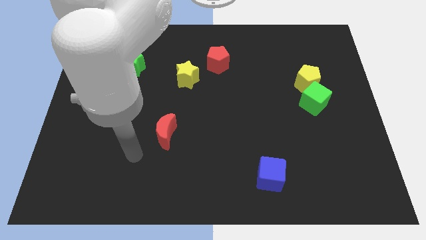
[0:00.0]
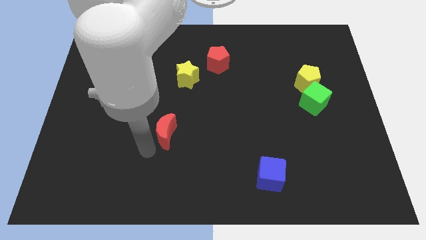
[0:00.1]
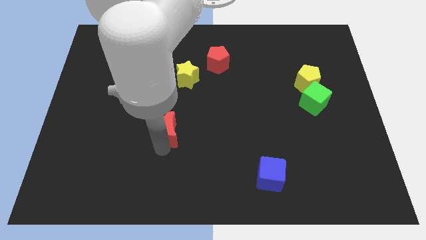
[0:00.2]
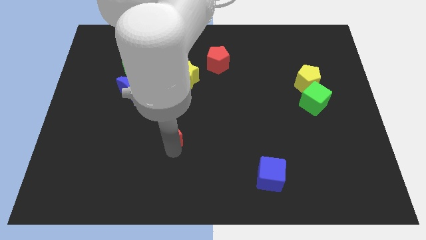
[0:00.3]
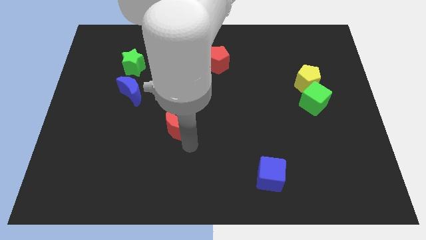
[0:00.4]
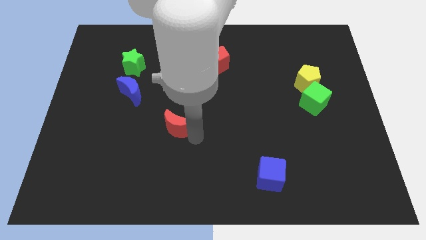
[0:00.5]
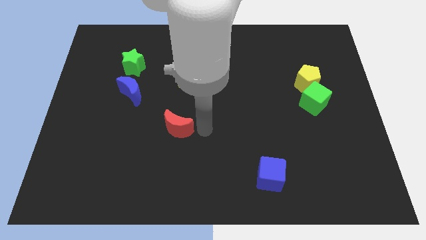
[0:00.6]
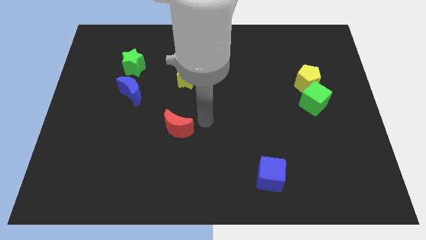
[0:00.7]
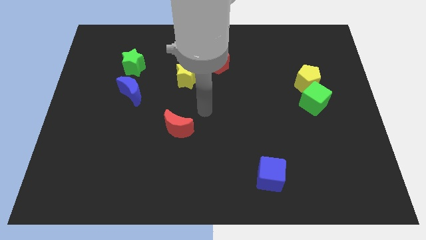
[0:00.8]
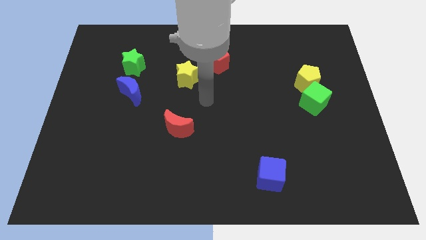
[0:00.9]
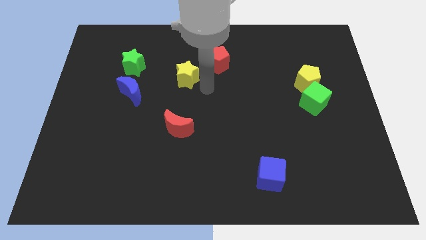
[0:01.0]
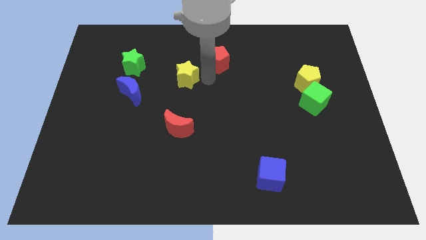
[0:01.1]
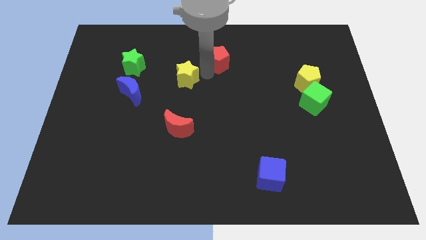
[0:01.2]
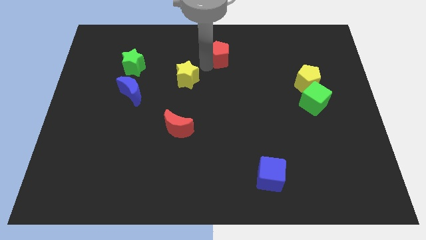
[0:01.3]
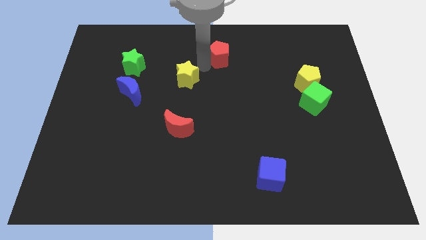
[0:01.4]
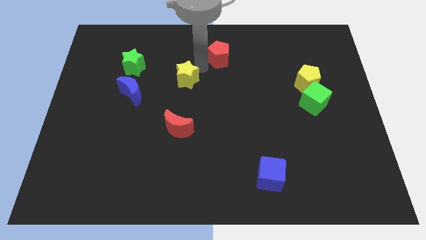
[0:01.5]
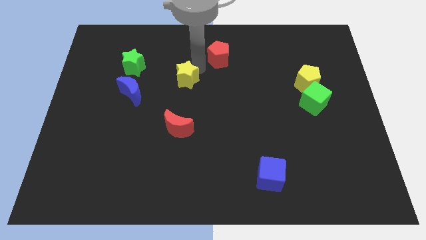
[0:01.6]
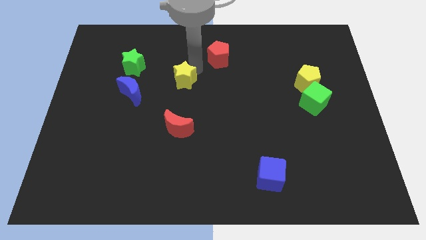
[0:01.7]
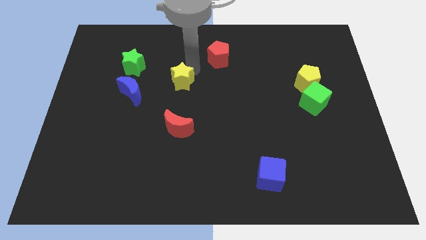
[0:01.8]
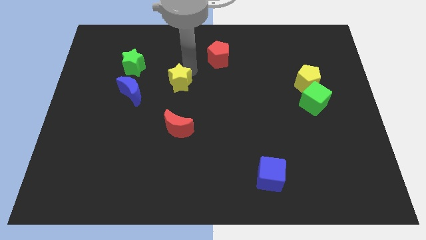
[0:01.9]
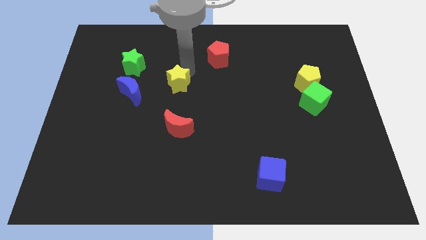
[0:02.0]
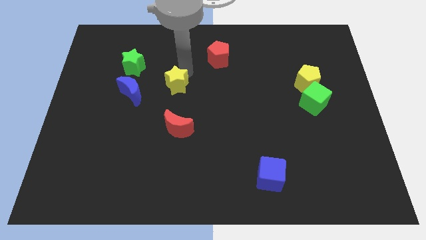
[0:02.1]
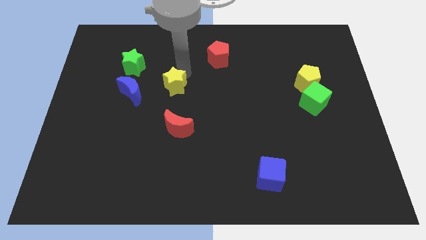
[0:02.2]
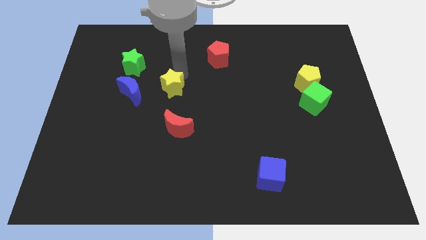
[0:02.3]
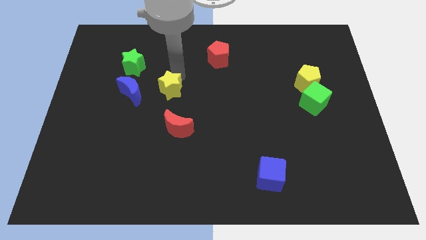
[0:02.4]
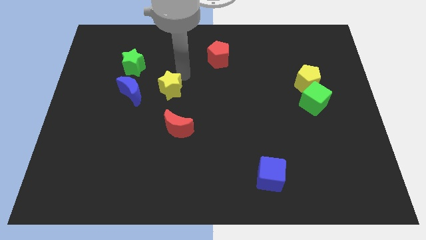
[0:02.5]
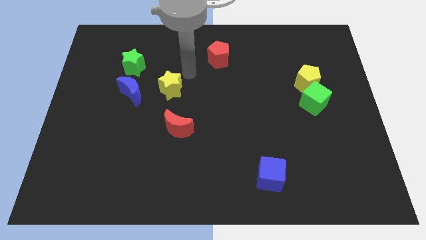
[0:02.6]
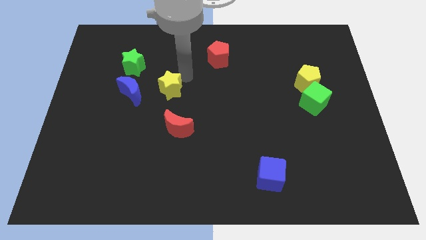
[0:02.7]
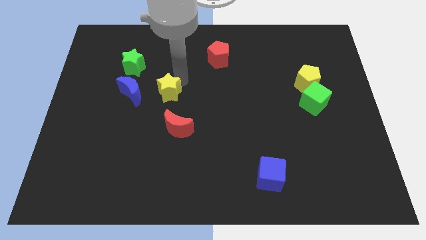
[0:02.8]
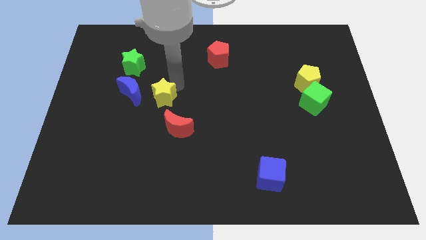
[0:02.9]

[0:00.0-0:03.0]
slightly move the yellow star down and left diagonally

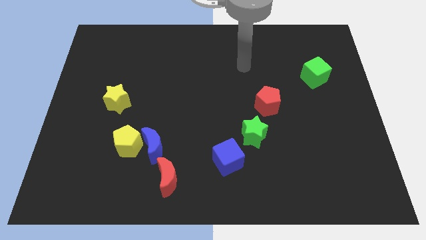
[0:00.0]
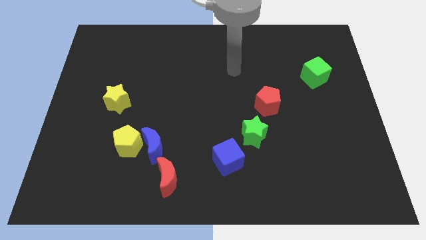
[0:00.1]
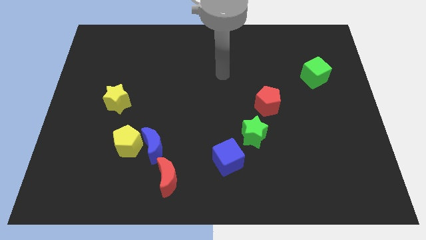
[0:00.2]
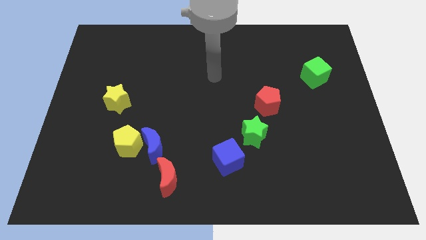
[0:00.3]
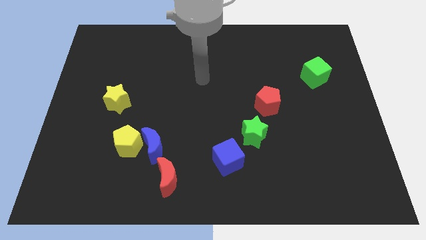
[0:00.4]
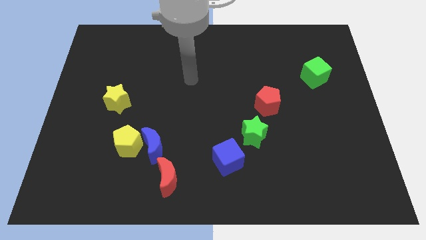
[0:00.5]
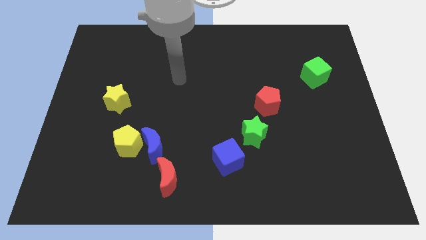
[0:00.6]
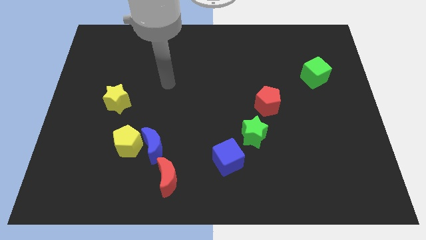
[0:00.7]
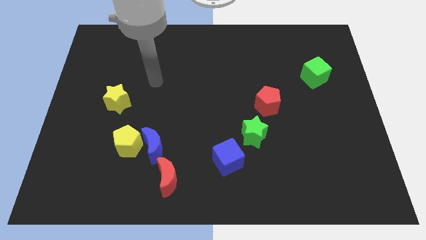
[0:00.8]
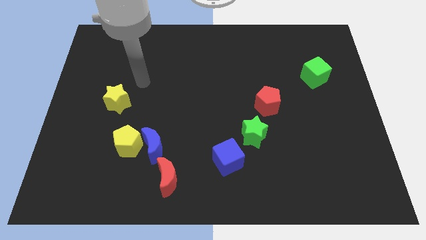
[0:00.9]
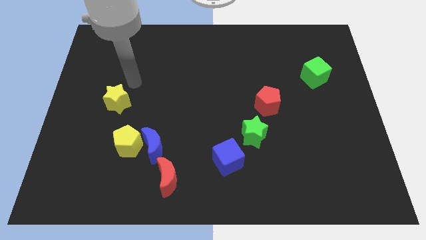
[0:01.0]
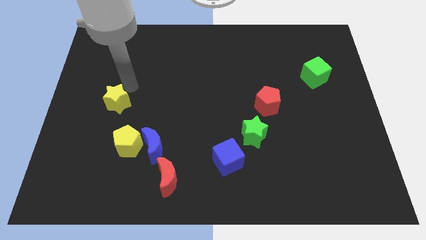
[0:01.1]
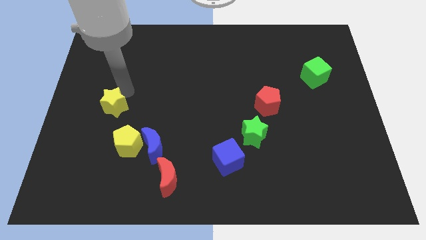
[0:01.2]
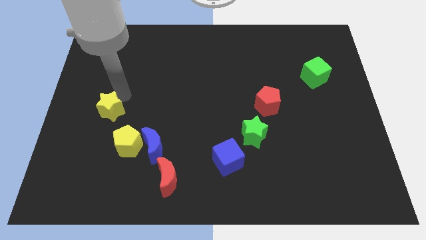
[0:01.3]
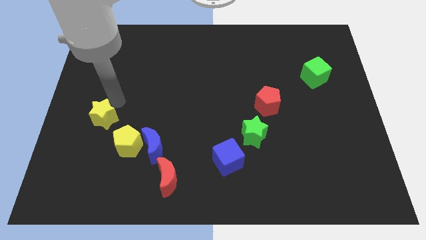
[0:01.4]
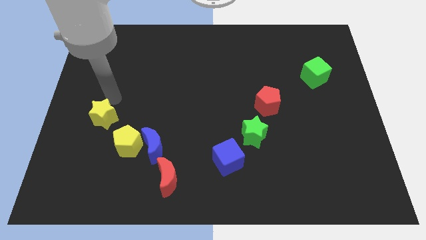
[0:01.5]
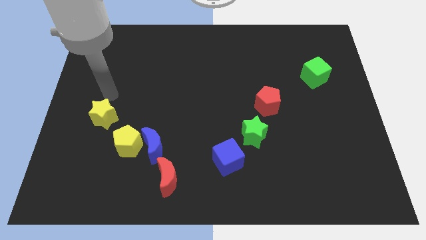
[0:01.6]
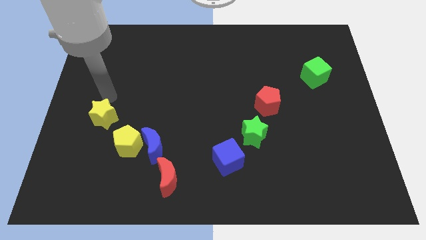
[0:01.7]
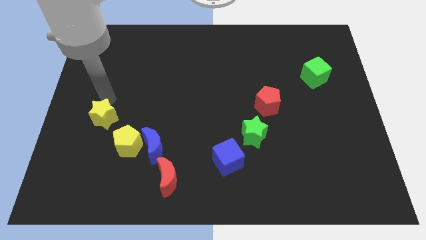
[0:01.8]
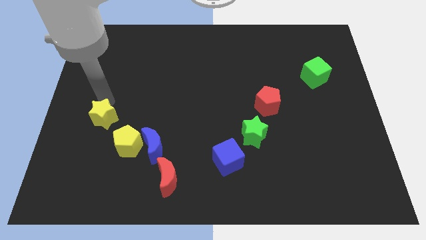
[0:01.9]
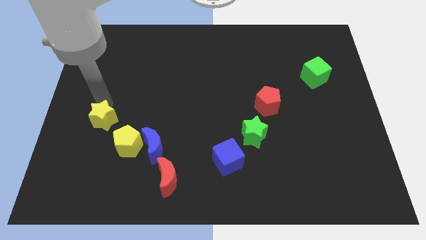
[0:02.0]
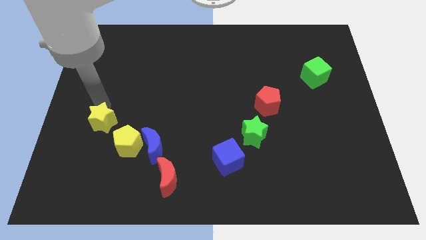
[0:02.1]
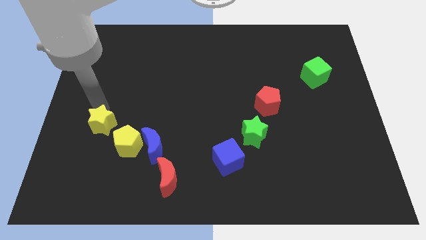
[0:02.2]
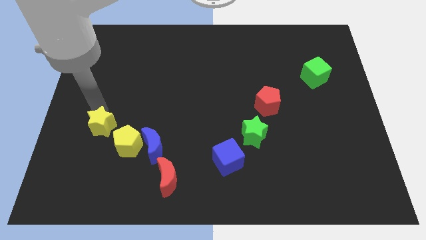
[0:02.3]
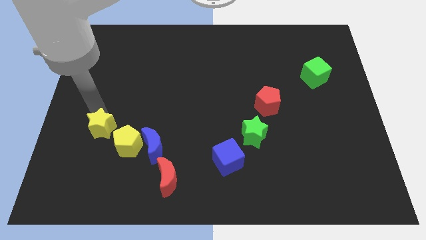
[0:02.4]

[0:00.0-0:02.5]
move the yellow star downwards a little

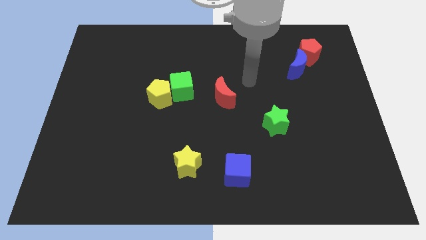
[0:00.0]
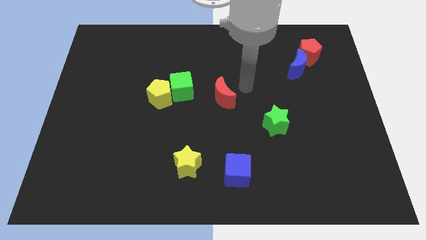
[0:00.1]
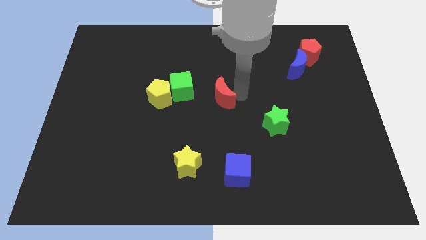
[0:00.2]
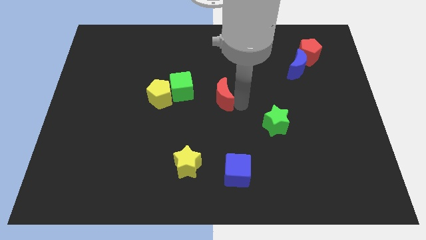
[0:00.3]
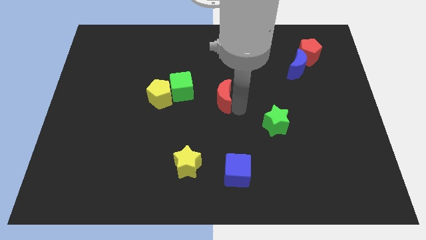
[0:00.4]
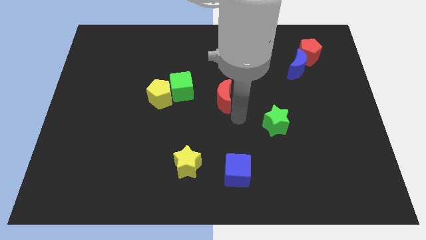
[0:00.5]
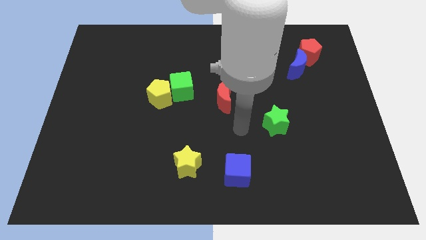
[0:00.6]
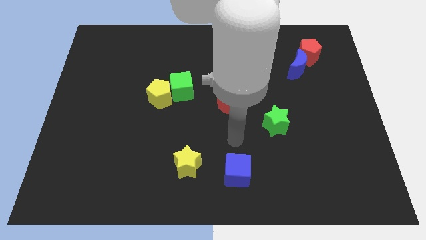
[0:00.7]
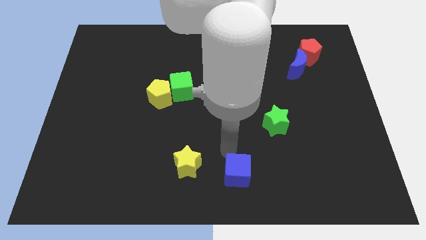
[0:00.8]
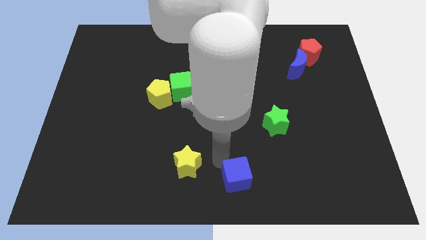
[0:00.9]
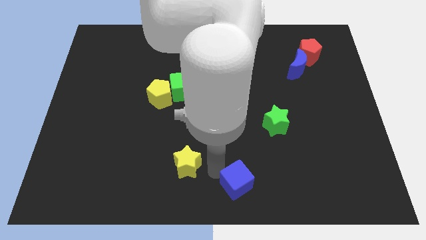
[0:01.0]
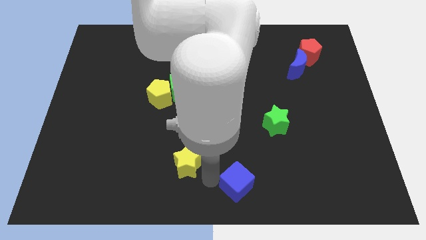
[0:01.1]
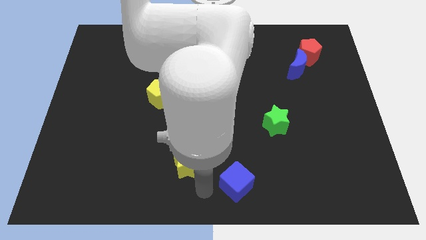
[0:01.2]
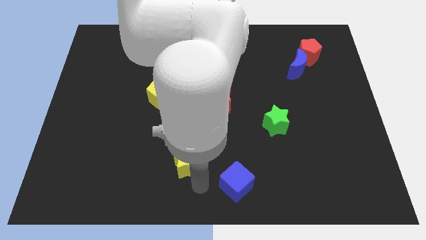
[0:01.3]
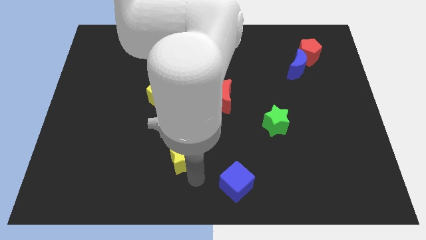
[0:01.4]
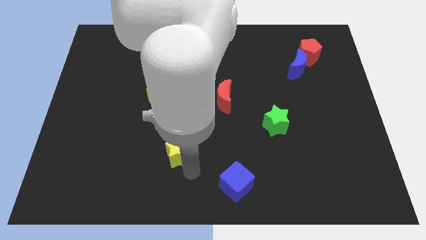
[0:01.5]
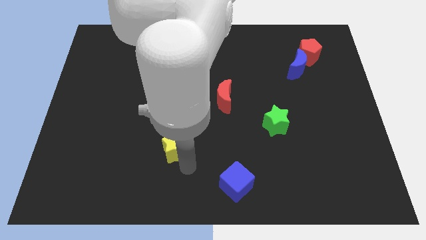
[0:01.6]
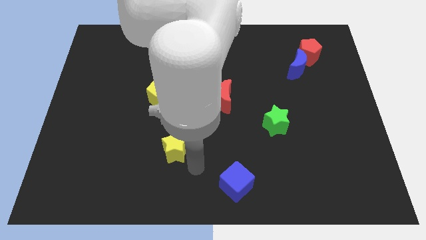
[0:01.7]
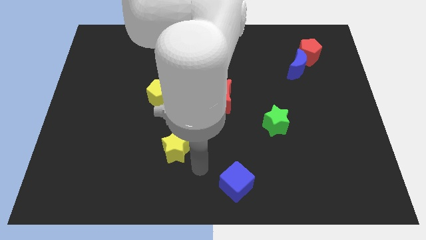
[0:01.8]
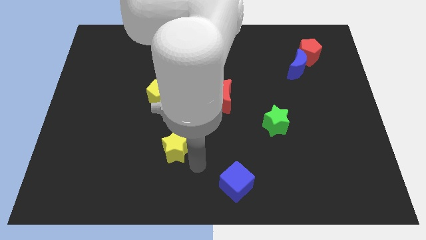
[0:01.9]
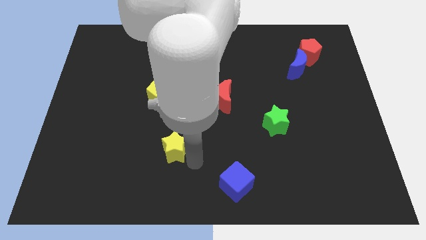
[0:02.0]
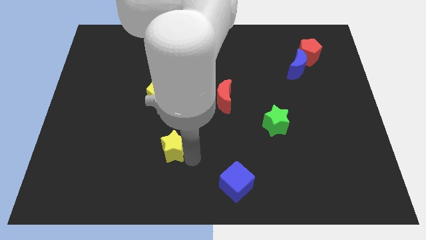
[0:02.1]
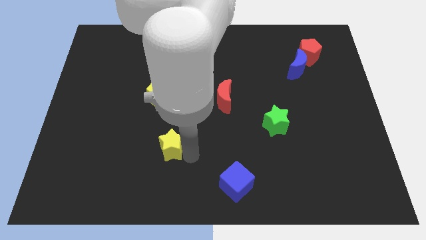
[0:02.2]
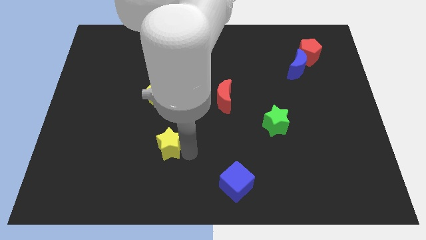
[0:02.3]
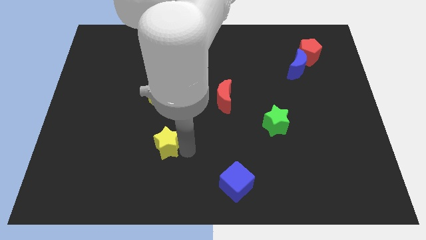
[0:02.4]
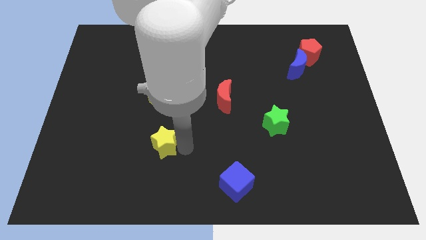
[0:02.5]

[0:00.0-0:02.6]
move the yellow star somewhat upwards and to the left
